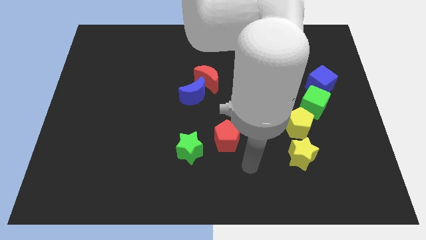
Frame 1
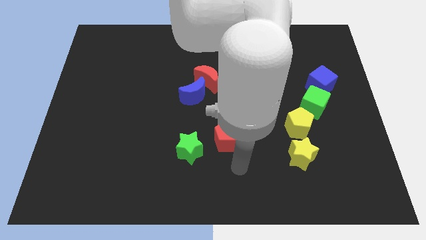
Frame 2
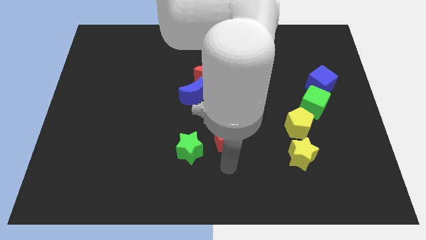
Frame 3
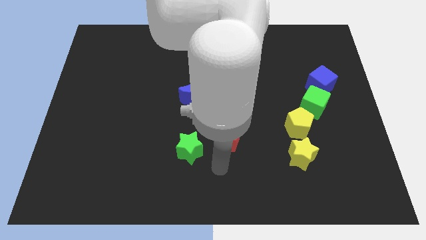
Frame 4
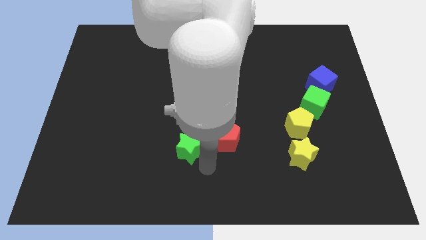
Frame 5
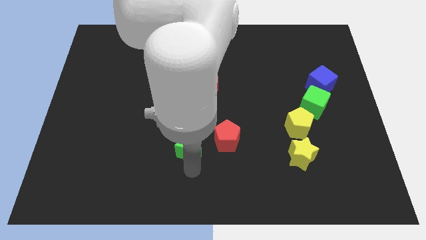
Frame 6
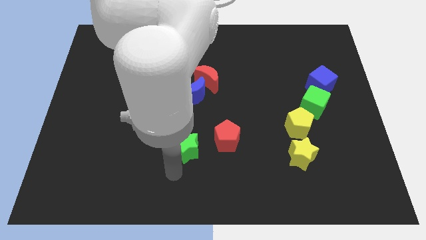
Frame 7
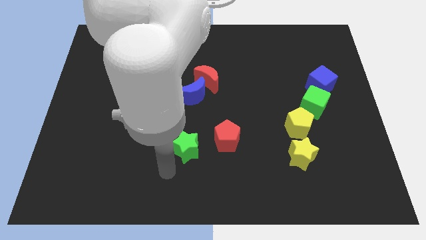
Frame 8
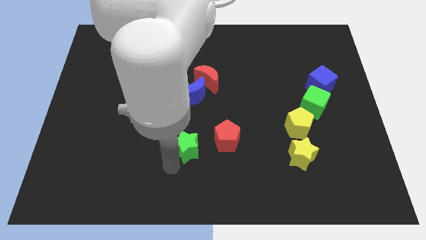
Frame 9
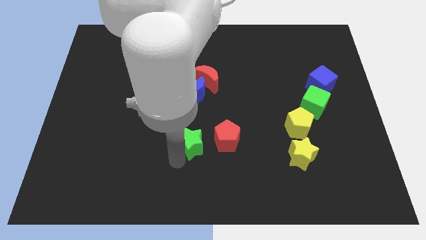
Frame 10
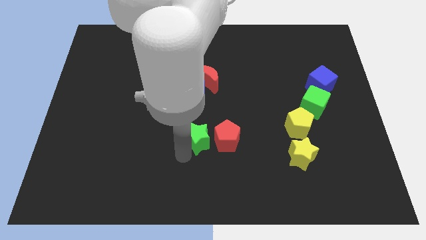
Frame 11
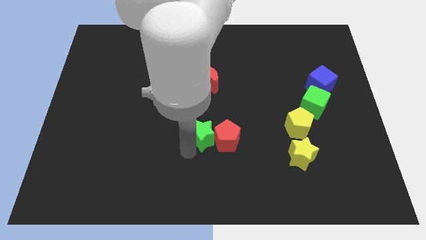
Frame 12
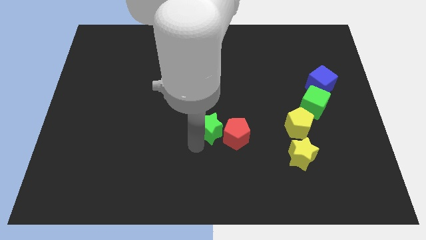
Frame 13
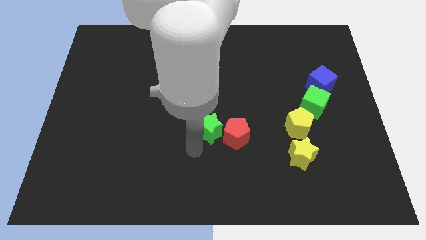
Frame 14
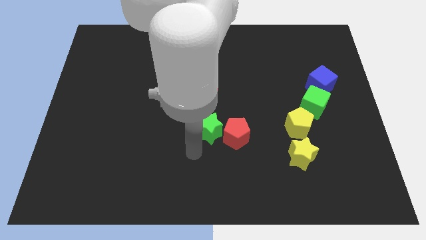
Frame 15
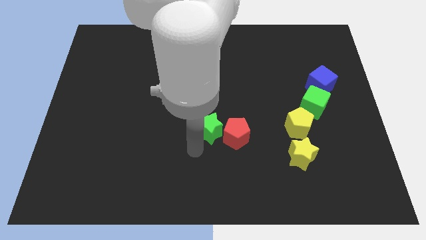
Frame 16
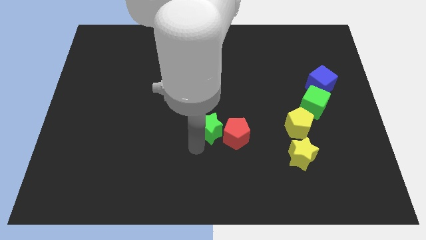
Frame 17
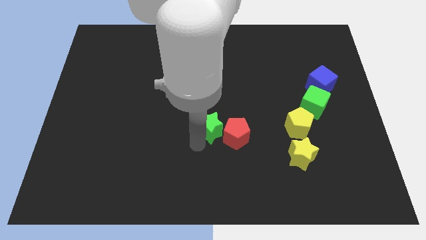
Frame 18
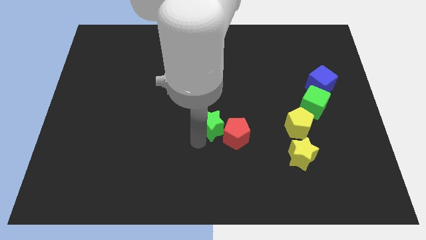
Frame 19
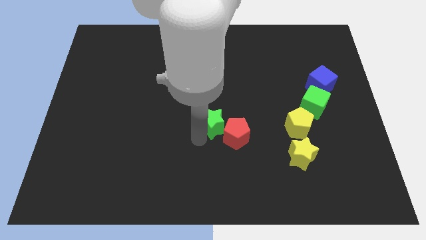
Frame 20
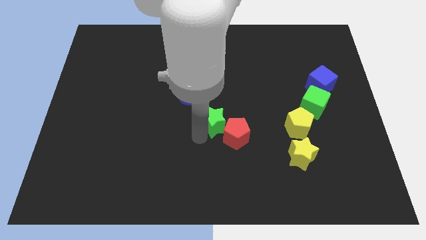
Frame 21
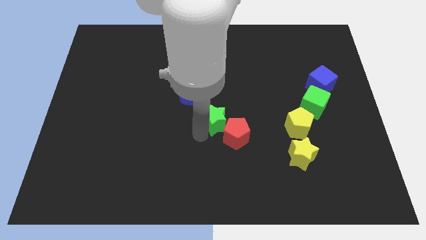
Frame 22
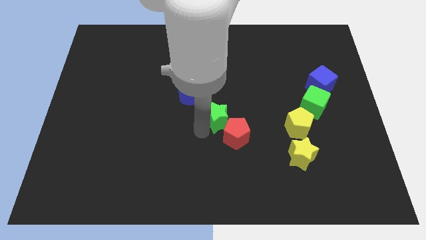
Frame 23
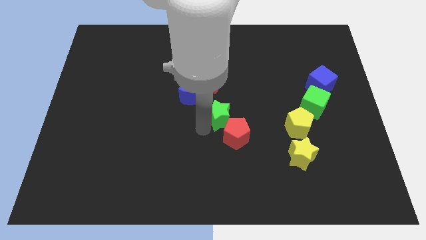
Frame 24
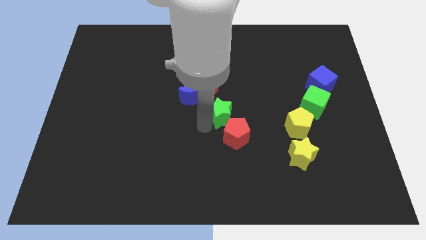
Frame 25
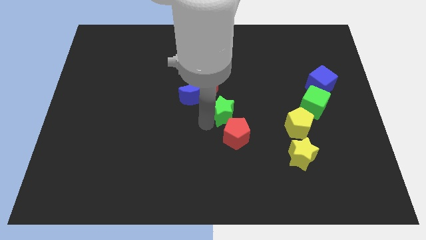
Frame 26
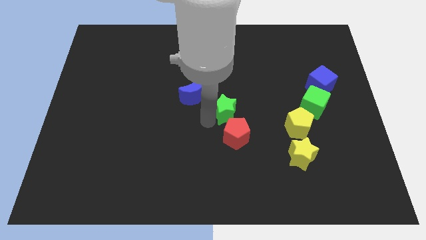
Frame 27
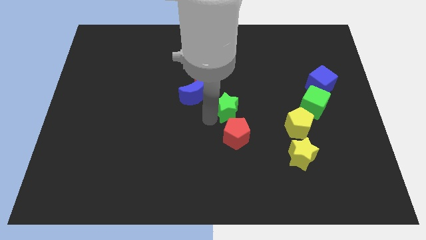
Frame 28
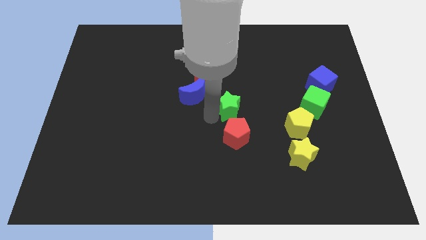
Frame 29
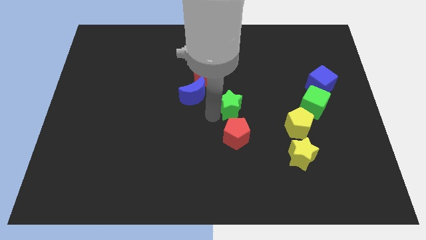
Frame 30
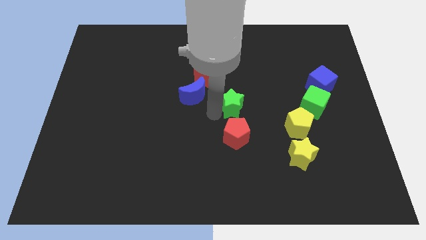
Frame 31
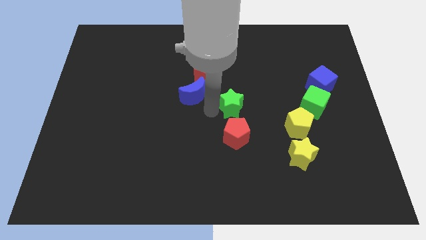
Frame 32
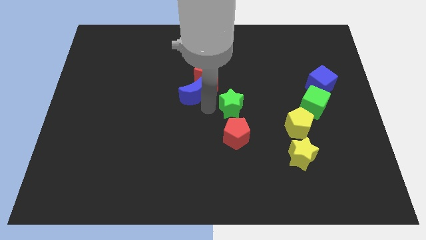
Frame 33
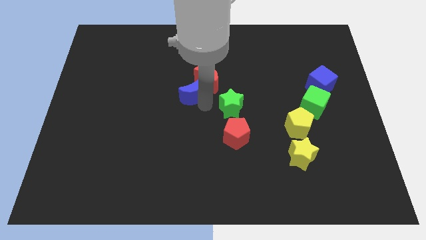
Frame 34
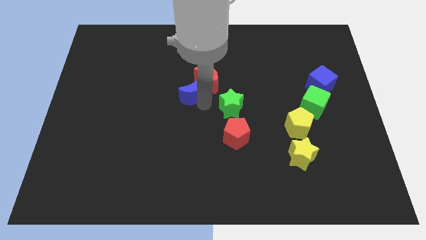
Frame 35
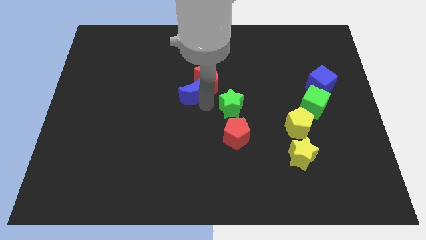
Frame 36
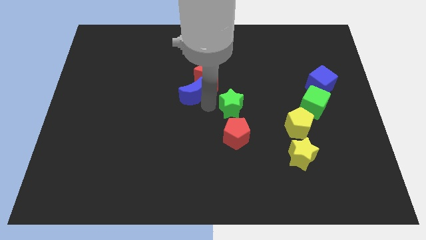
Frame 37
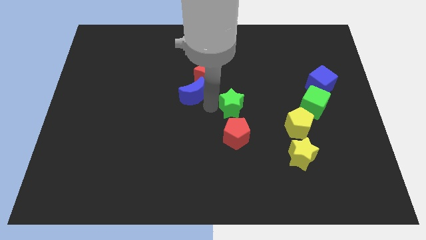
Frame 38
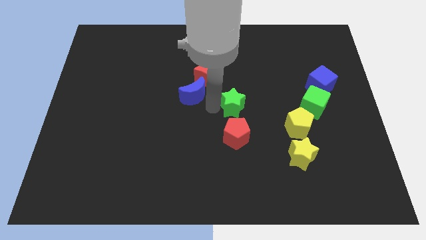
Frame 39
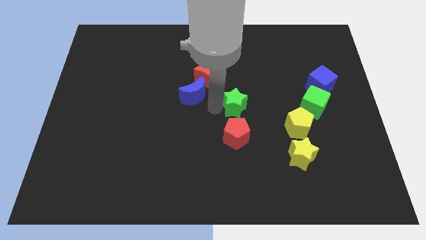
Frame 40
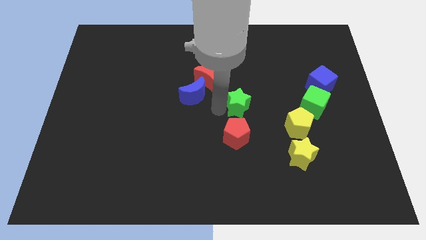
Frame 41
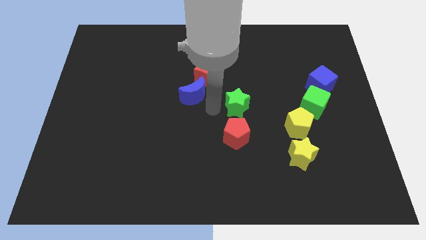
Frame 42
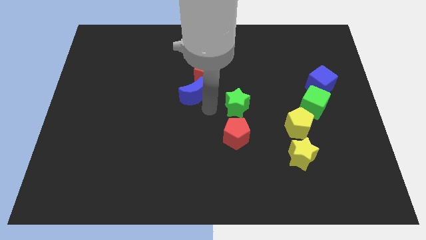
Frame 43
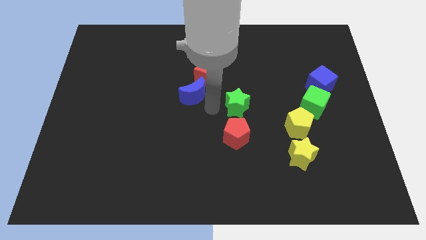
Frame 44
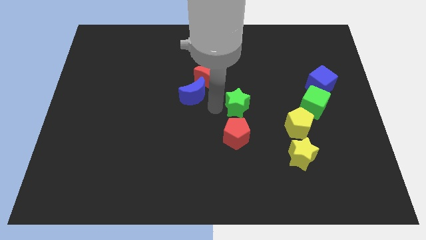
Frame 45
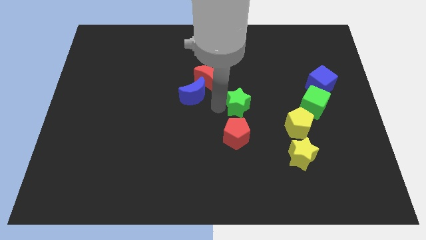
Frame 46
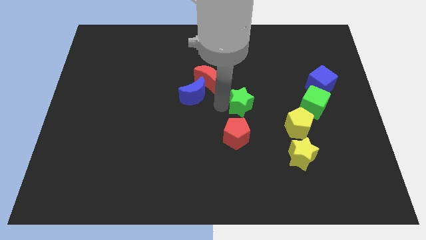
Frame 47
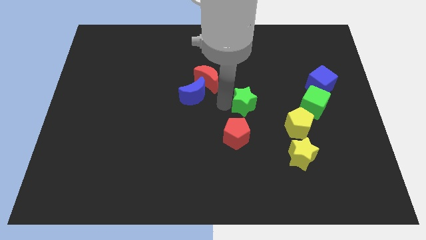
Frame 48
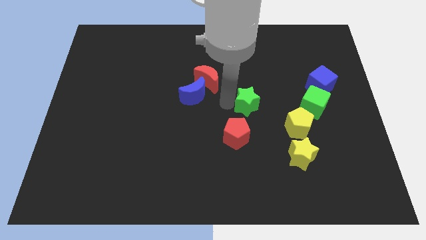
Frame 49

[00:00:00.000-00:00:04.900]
push the green star to the left of the green cube

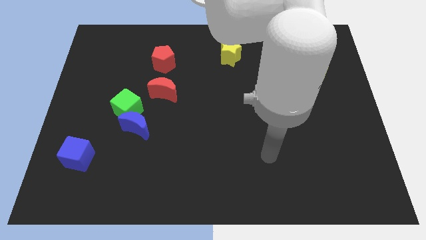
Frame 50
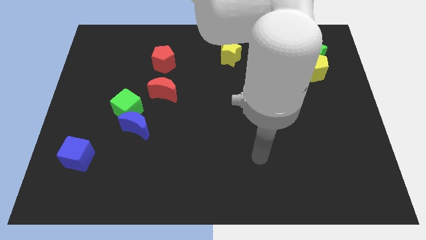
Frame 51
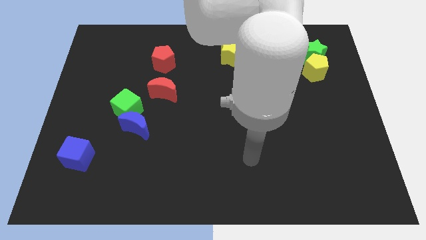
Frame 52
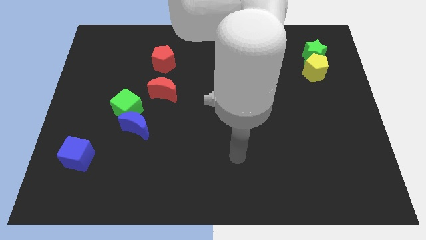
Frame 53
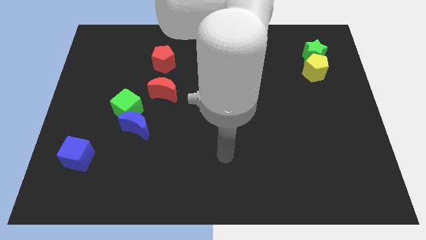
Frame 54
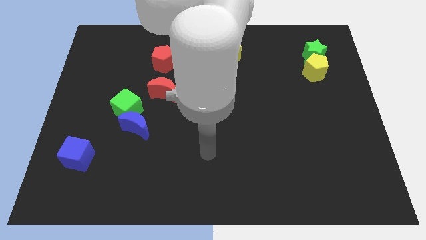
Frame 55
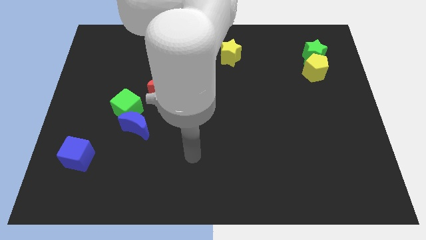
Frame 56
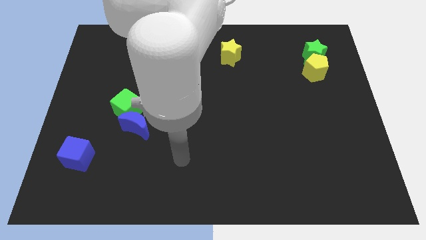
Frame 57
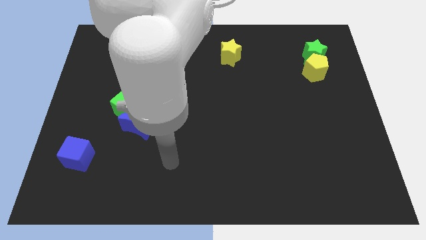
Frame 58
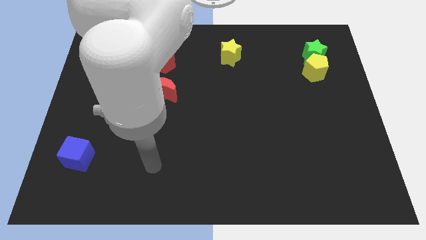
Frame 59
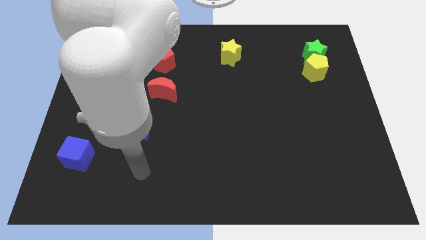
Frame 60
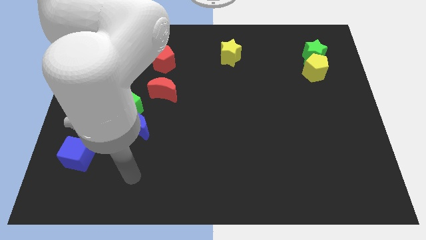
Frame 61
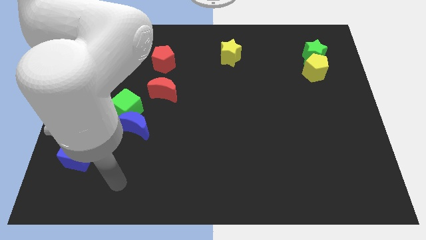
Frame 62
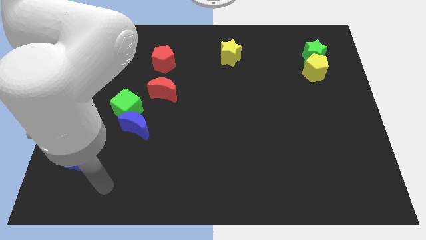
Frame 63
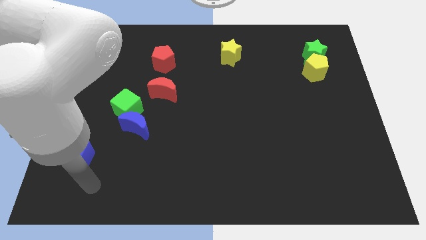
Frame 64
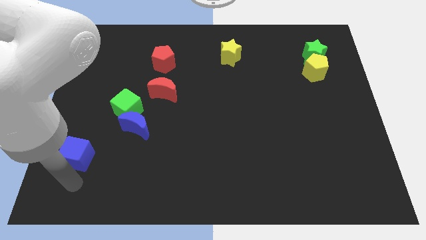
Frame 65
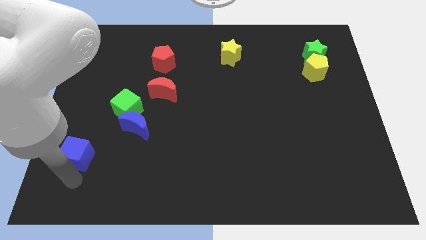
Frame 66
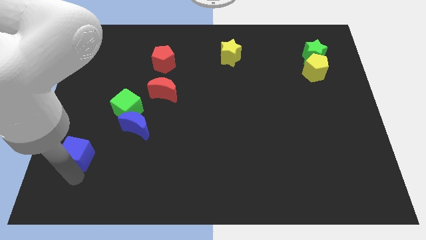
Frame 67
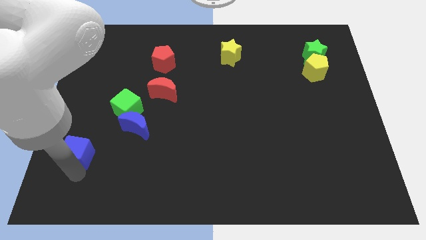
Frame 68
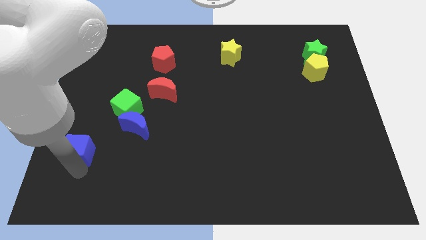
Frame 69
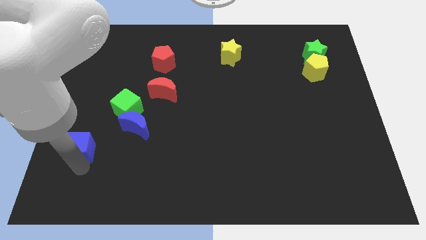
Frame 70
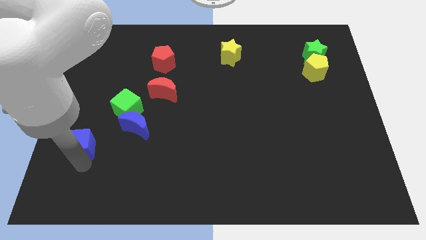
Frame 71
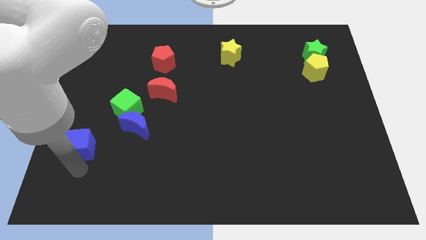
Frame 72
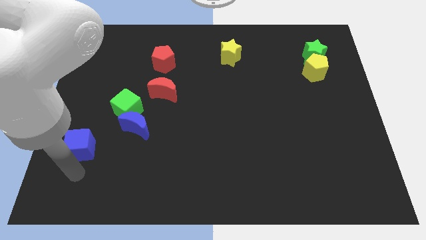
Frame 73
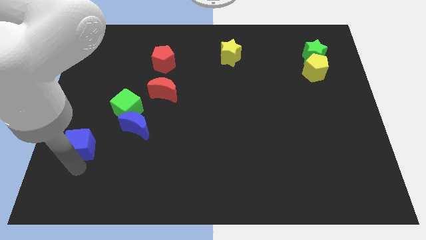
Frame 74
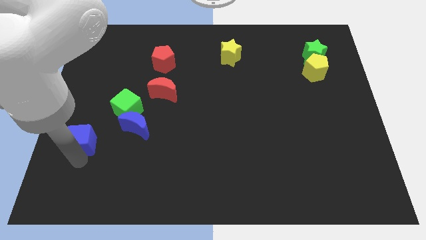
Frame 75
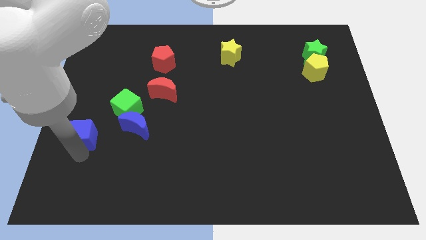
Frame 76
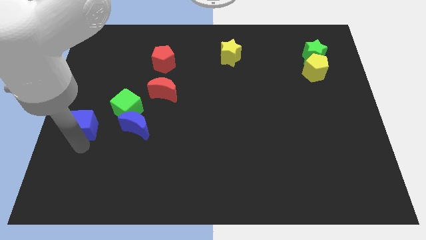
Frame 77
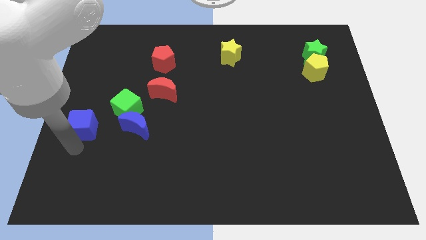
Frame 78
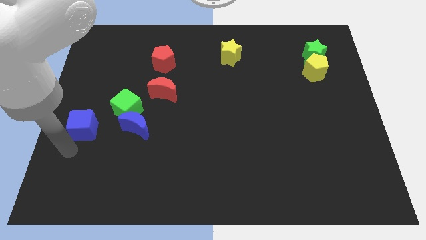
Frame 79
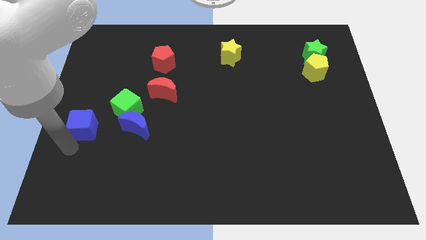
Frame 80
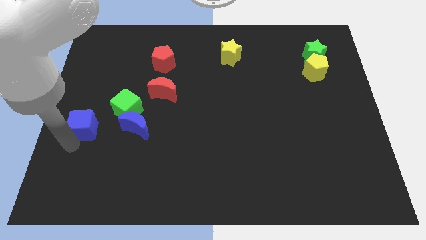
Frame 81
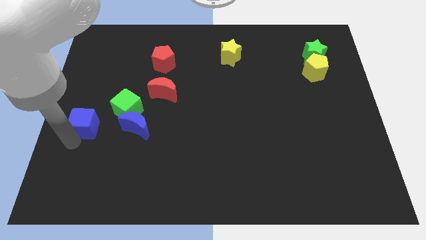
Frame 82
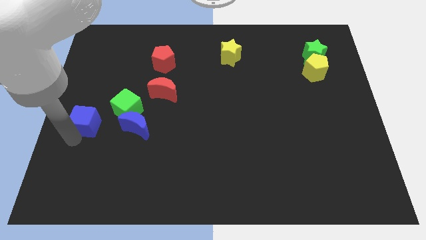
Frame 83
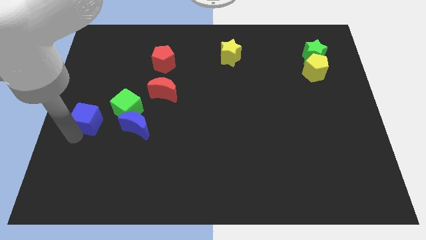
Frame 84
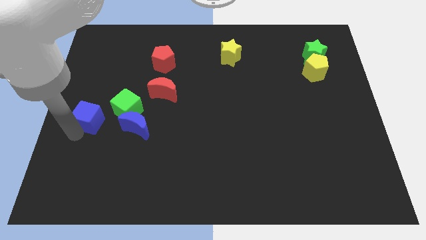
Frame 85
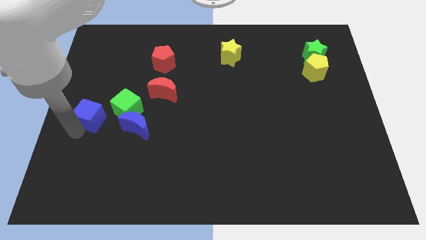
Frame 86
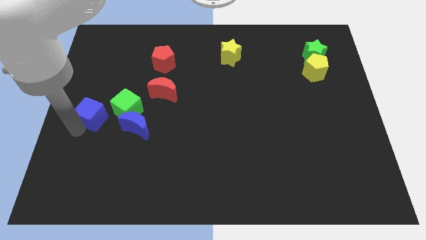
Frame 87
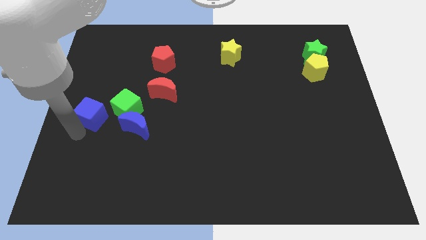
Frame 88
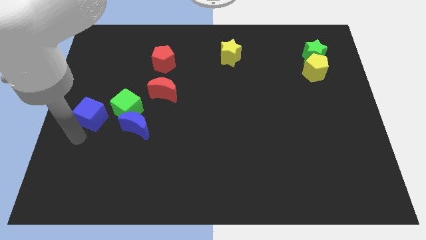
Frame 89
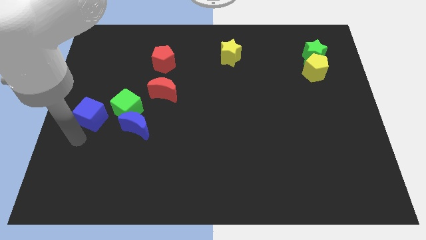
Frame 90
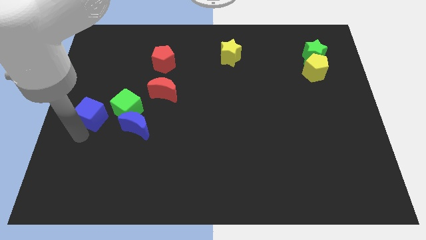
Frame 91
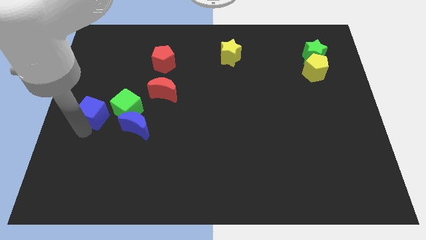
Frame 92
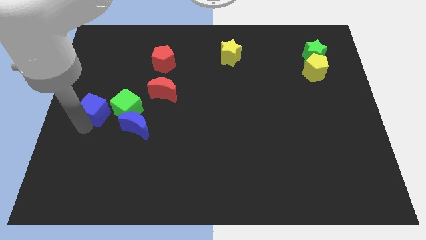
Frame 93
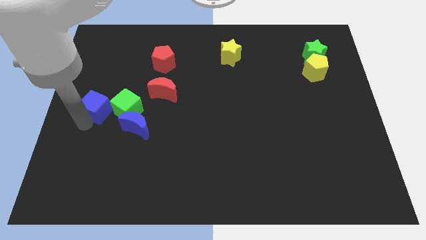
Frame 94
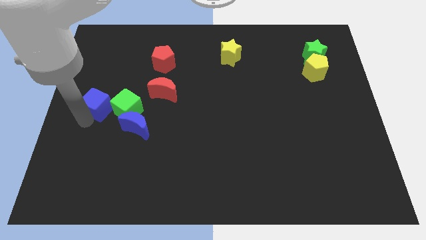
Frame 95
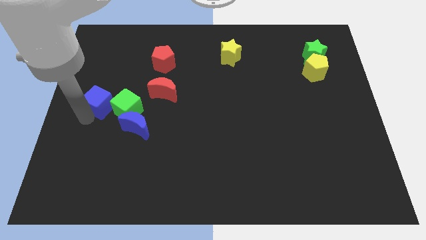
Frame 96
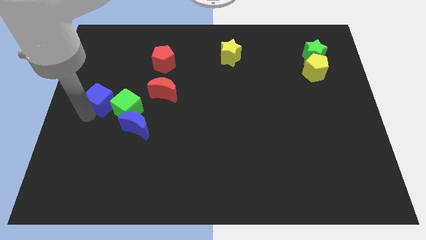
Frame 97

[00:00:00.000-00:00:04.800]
slide the blue cube to the left of the red moon
